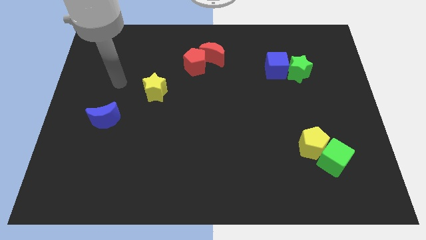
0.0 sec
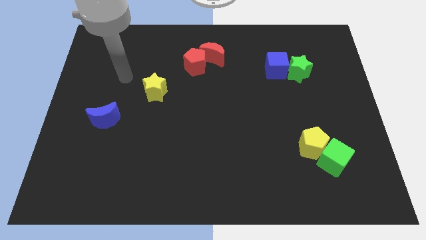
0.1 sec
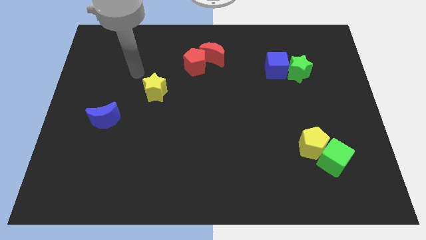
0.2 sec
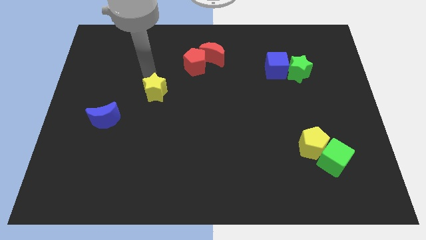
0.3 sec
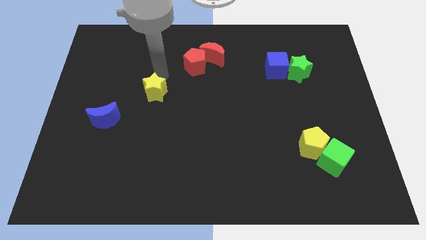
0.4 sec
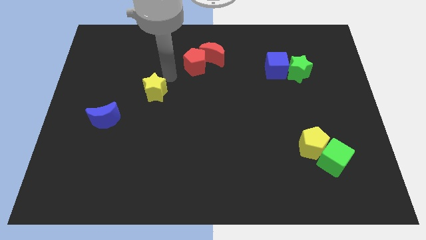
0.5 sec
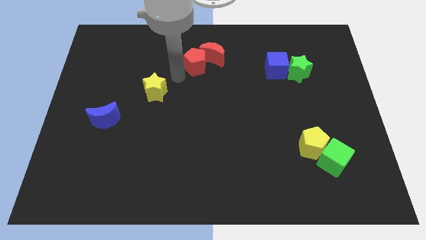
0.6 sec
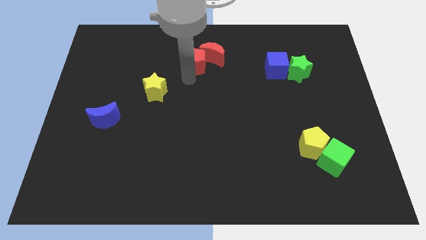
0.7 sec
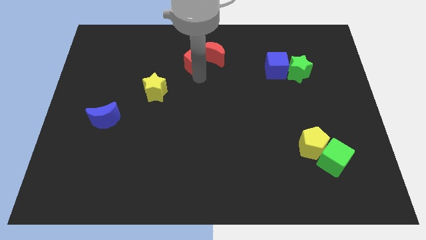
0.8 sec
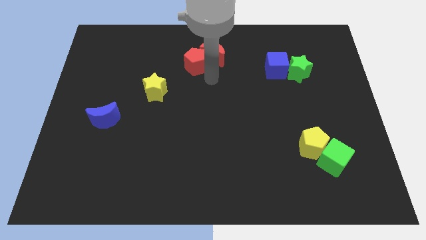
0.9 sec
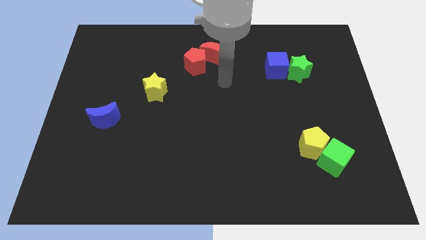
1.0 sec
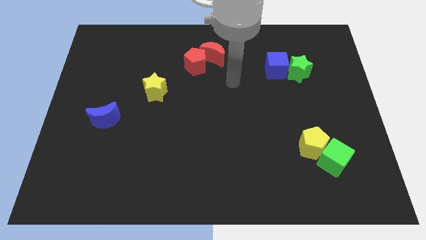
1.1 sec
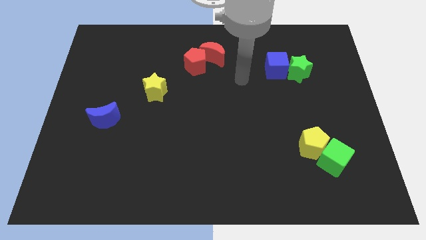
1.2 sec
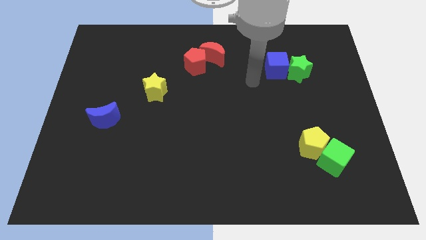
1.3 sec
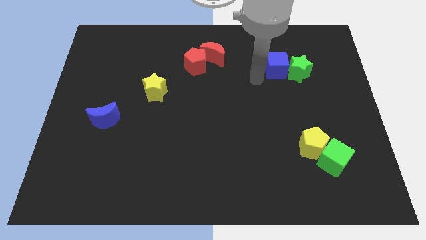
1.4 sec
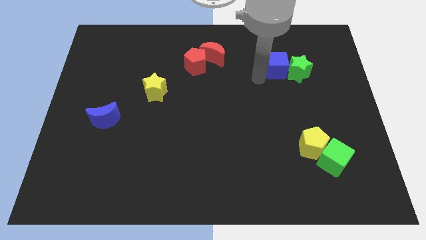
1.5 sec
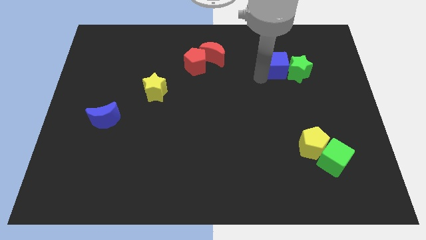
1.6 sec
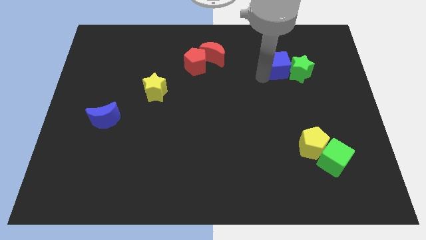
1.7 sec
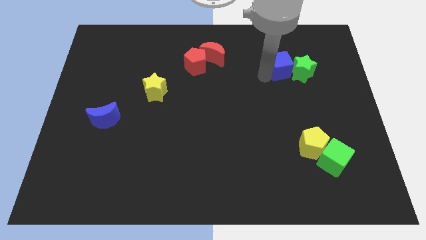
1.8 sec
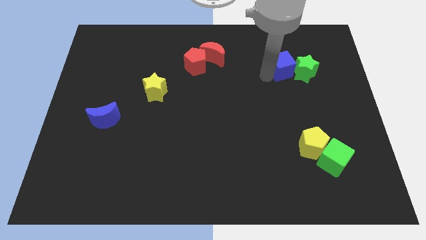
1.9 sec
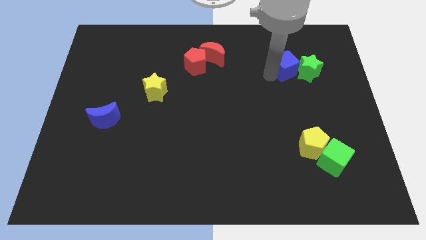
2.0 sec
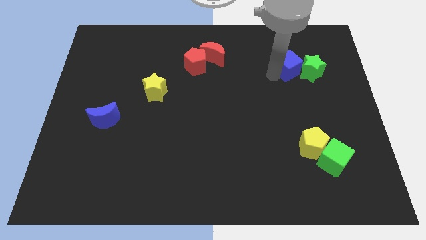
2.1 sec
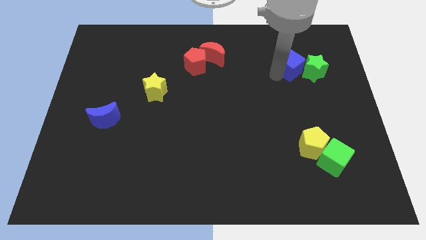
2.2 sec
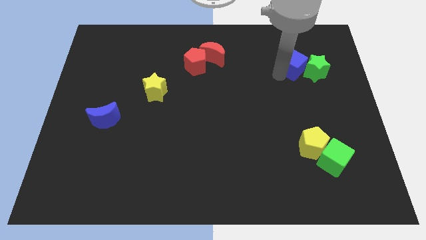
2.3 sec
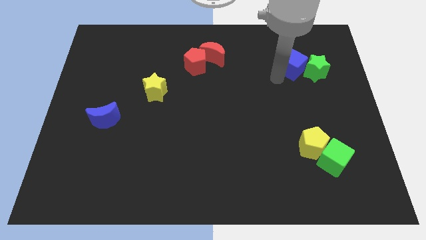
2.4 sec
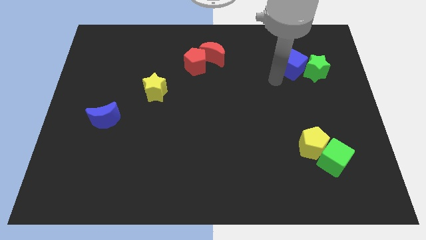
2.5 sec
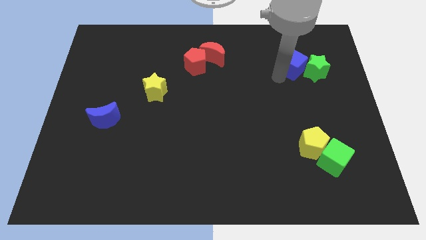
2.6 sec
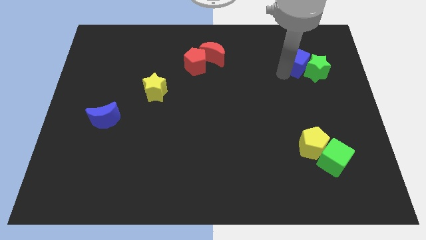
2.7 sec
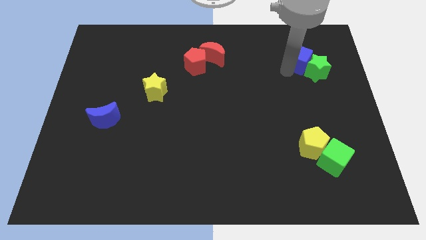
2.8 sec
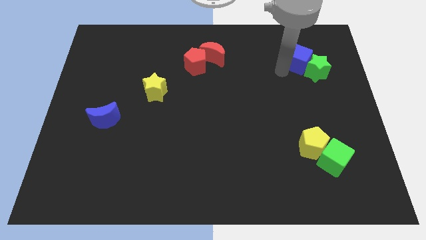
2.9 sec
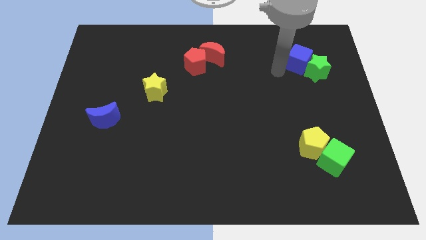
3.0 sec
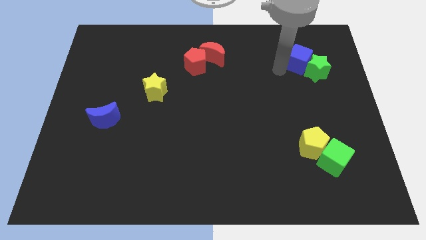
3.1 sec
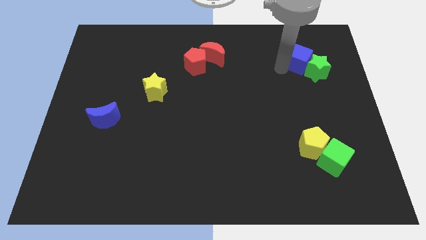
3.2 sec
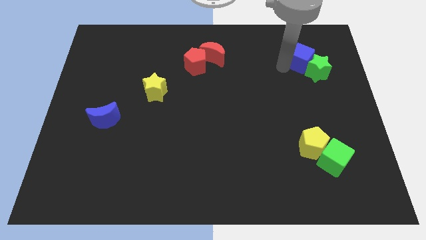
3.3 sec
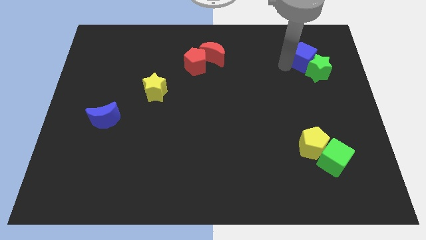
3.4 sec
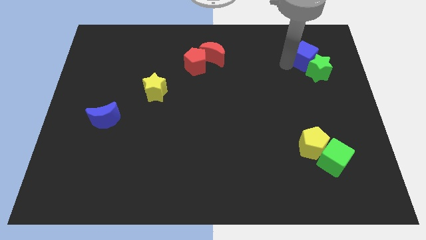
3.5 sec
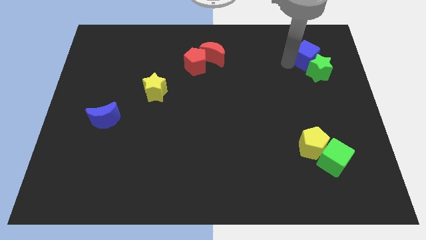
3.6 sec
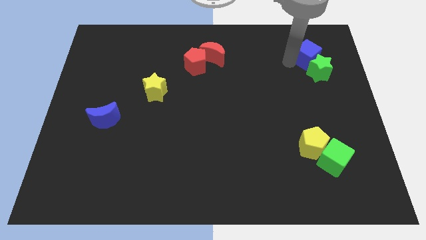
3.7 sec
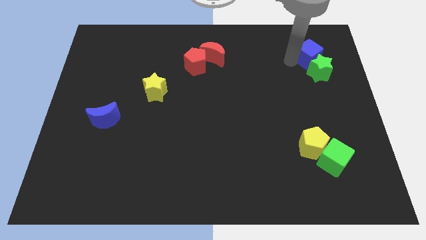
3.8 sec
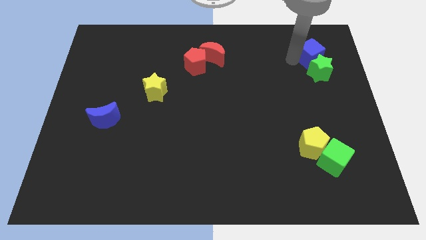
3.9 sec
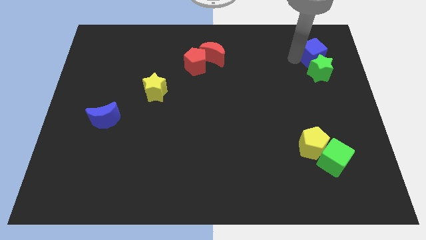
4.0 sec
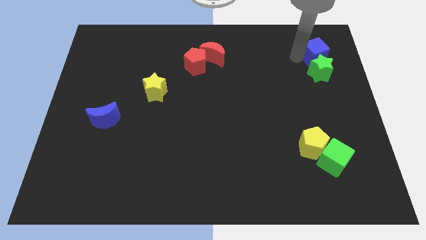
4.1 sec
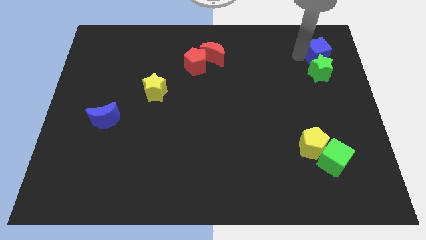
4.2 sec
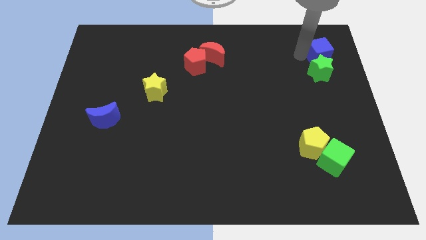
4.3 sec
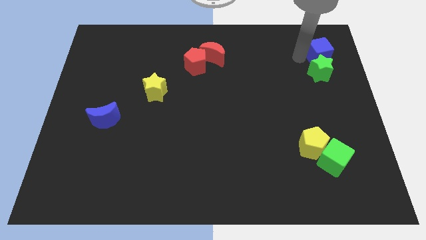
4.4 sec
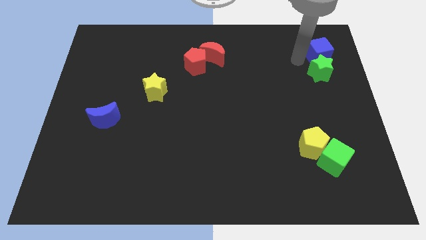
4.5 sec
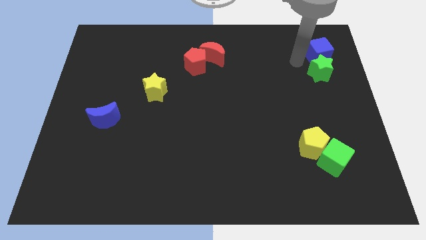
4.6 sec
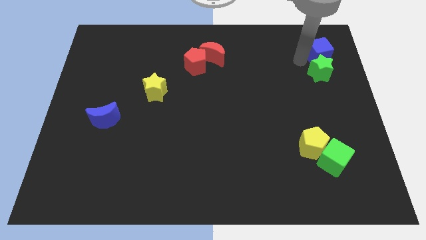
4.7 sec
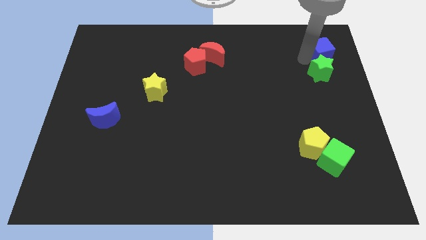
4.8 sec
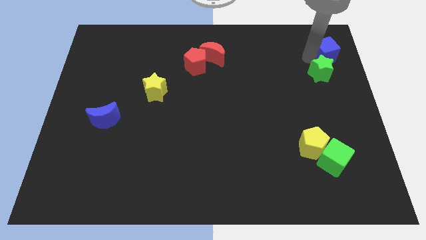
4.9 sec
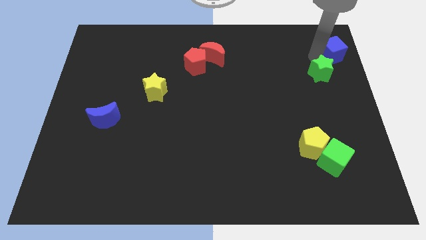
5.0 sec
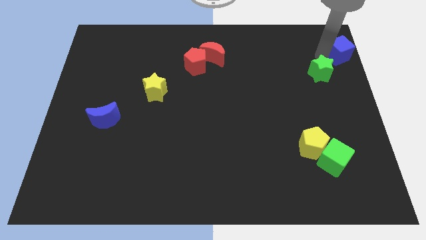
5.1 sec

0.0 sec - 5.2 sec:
push the blue cube to the upper right corner

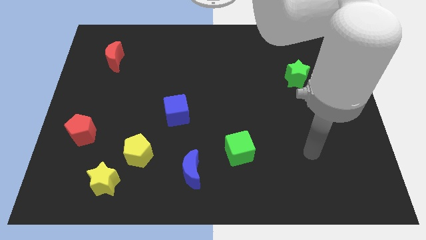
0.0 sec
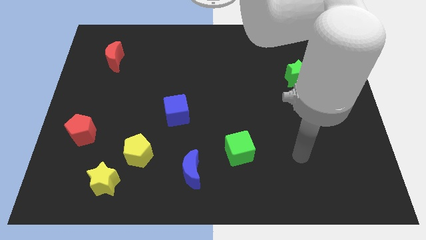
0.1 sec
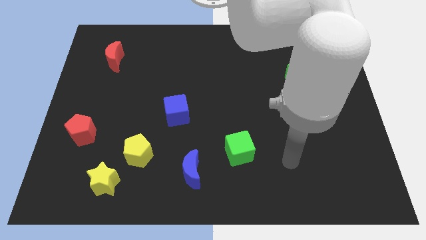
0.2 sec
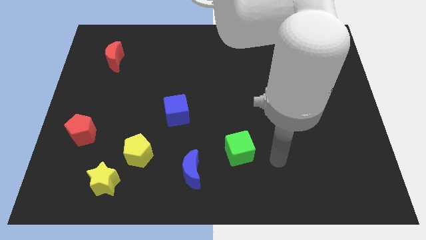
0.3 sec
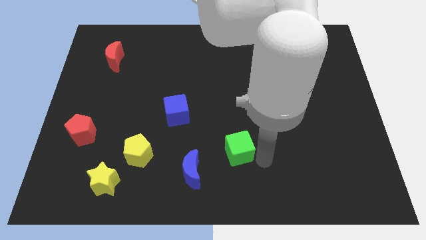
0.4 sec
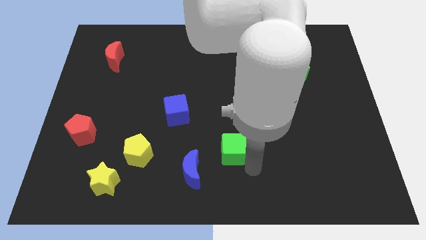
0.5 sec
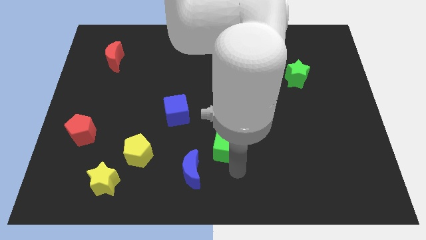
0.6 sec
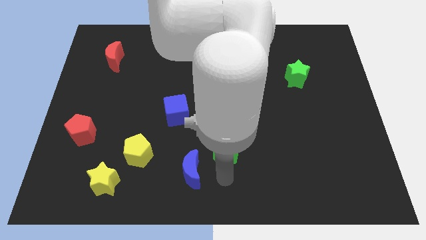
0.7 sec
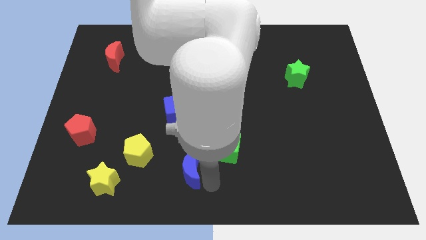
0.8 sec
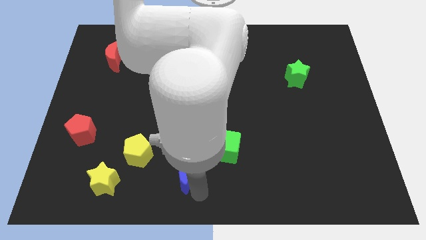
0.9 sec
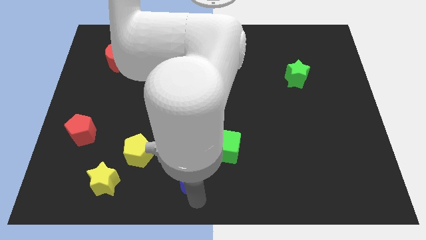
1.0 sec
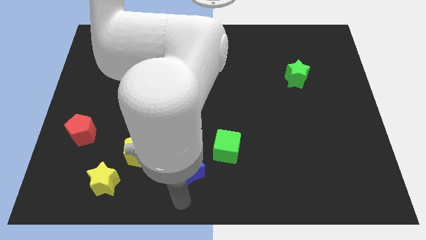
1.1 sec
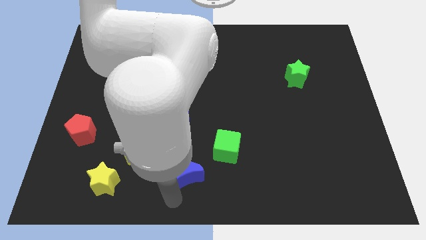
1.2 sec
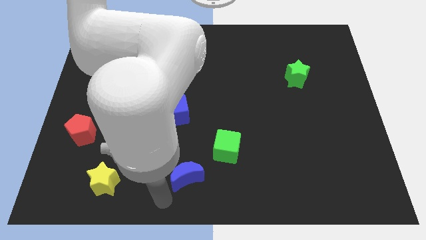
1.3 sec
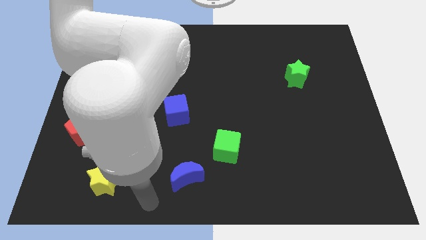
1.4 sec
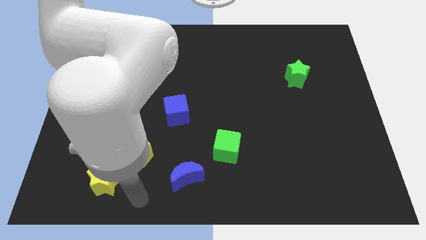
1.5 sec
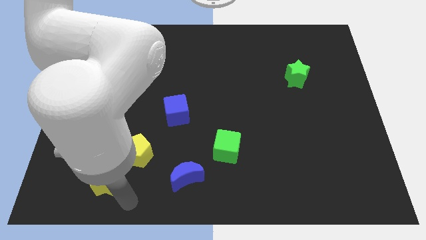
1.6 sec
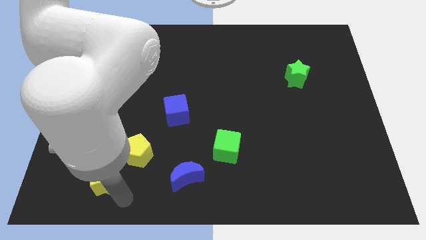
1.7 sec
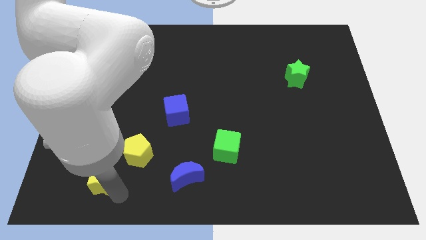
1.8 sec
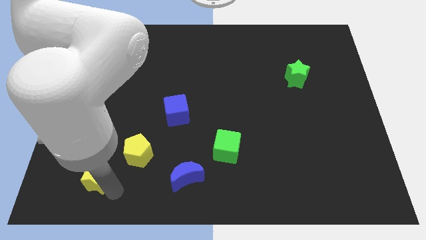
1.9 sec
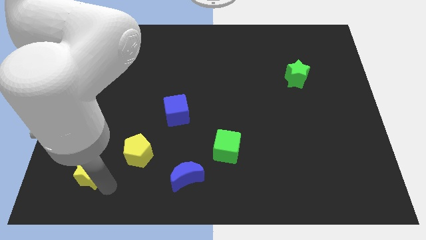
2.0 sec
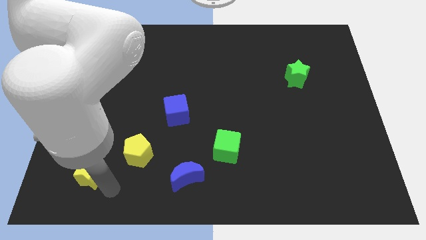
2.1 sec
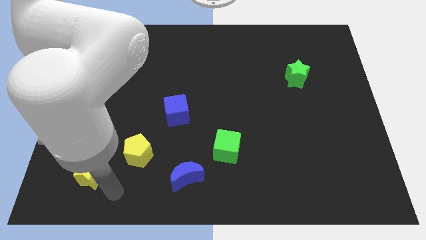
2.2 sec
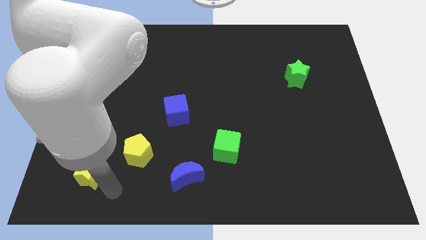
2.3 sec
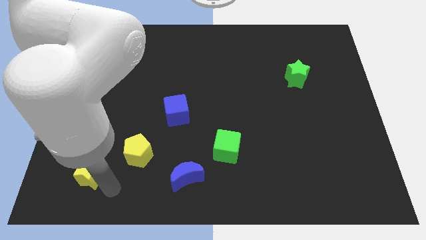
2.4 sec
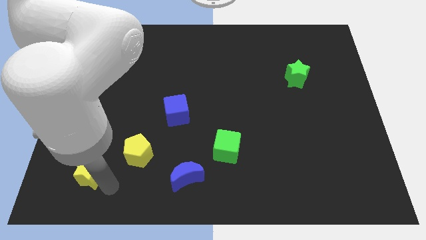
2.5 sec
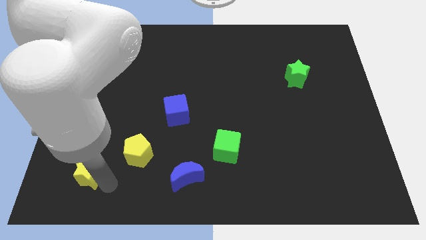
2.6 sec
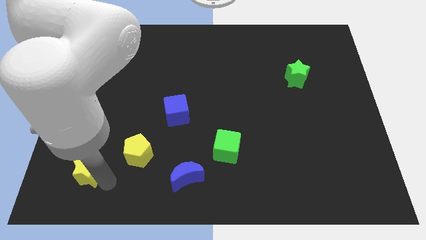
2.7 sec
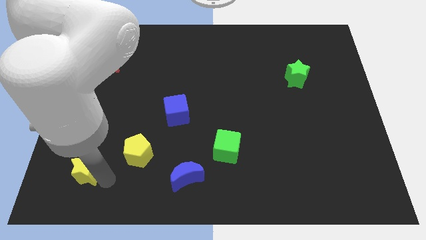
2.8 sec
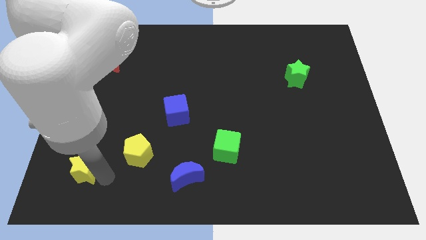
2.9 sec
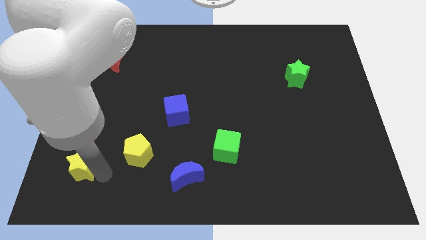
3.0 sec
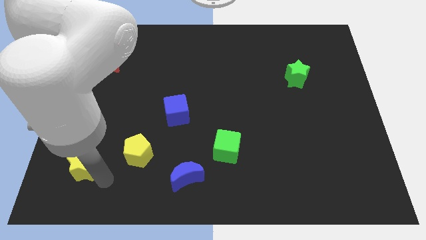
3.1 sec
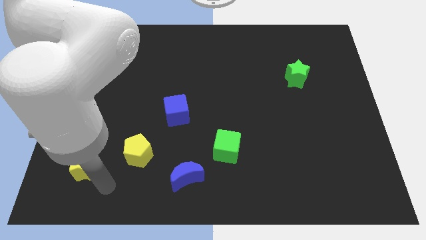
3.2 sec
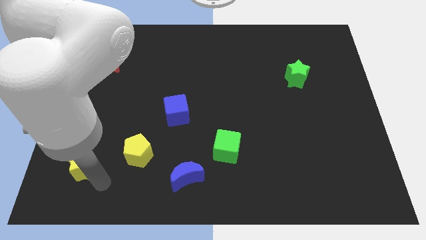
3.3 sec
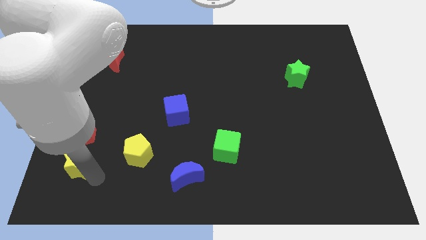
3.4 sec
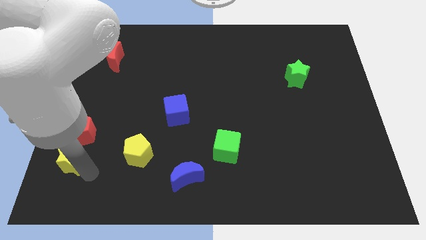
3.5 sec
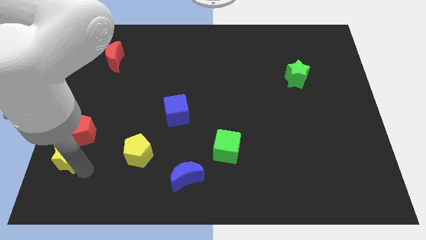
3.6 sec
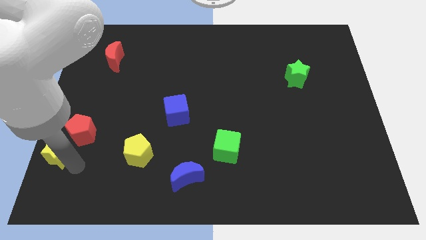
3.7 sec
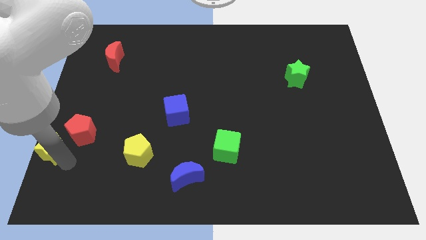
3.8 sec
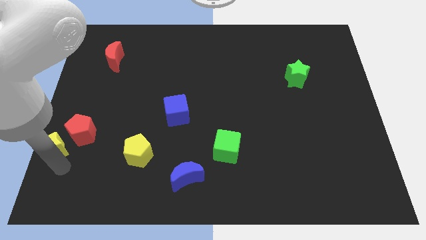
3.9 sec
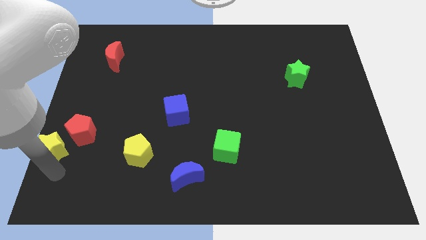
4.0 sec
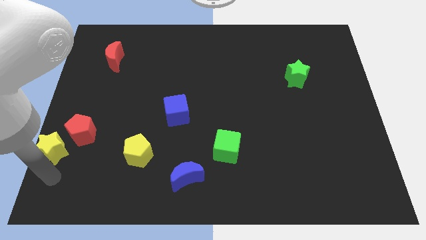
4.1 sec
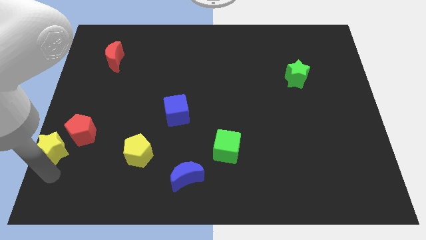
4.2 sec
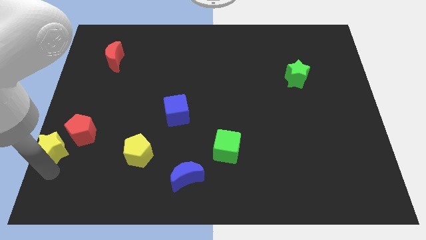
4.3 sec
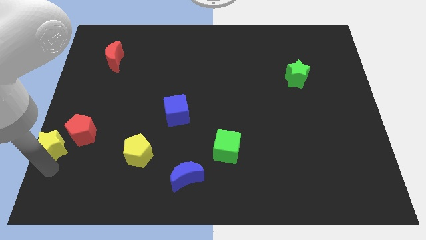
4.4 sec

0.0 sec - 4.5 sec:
slide the yellow star to the left side of the board
